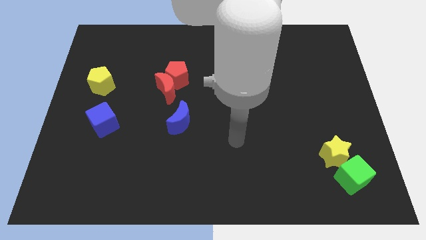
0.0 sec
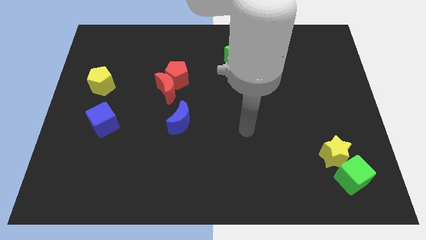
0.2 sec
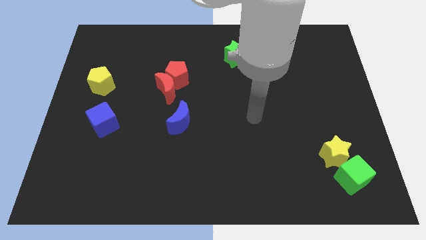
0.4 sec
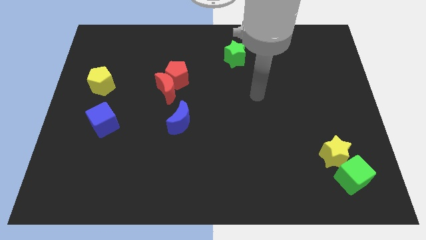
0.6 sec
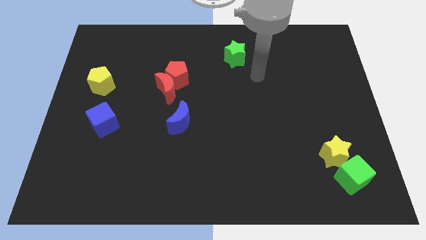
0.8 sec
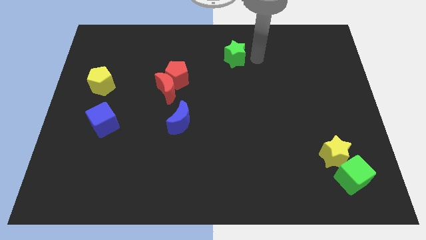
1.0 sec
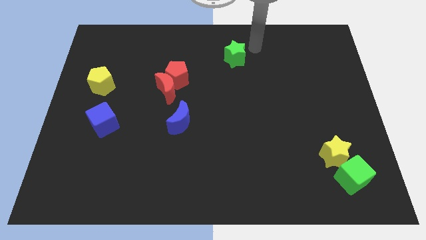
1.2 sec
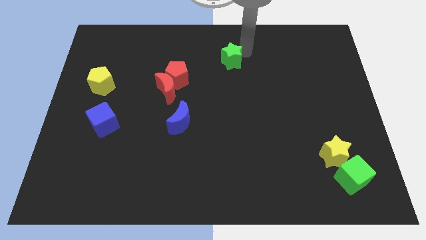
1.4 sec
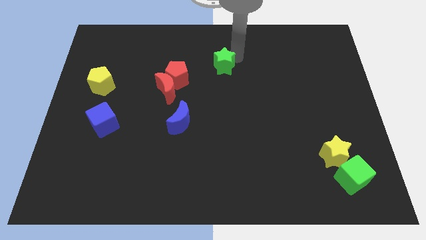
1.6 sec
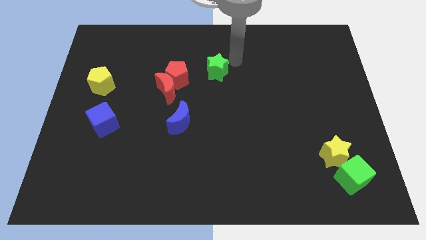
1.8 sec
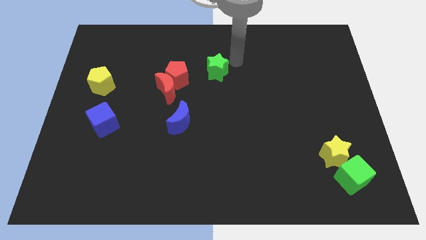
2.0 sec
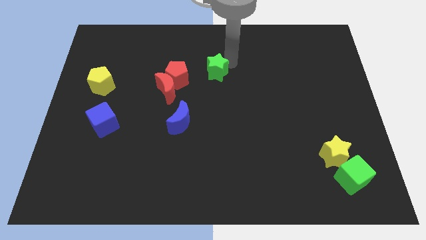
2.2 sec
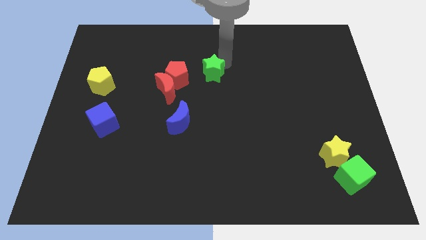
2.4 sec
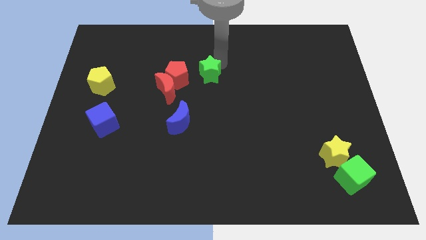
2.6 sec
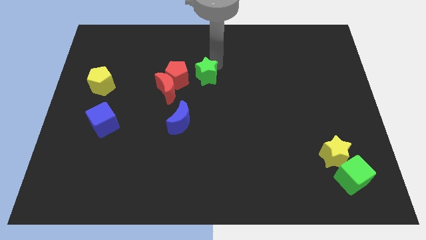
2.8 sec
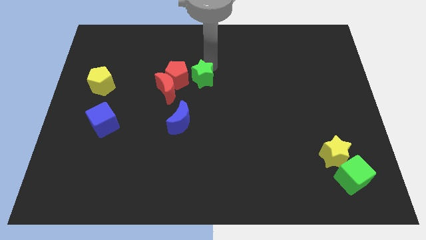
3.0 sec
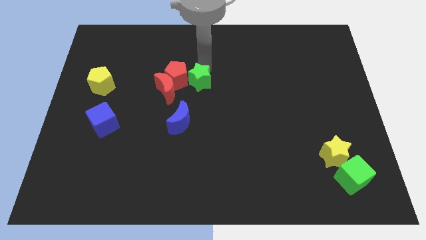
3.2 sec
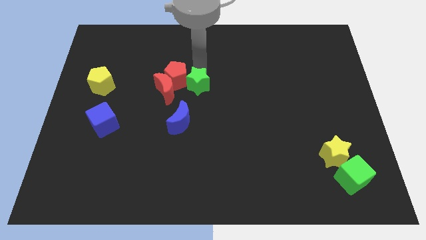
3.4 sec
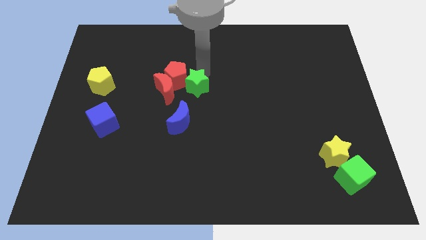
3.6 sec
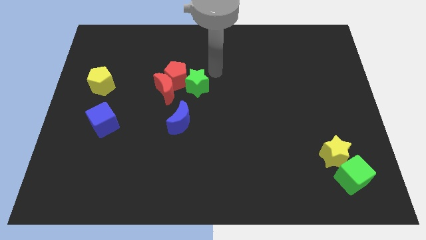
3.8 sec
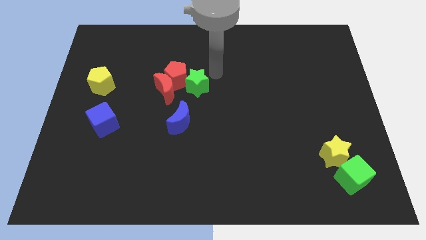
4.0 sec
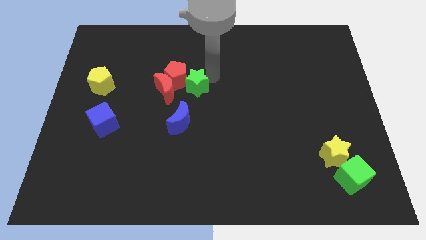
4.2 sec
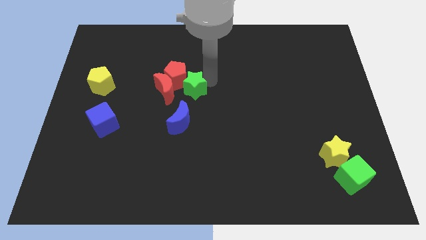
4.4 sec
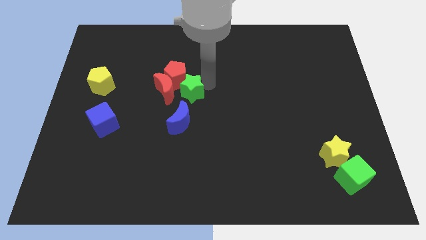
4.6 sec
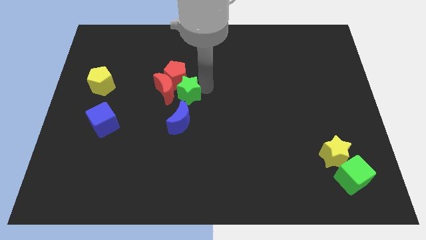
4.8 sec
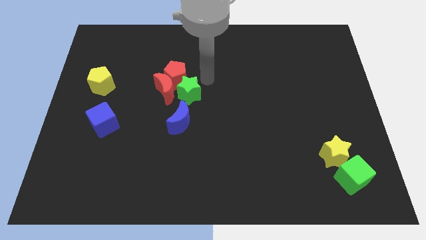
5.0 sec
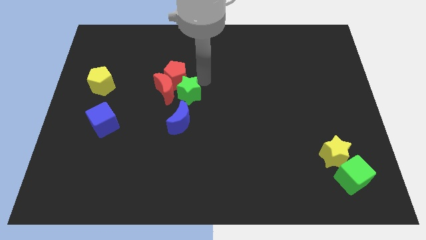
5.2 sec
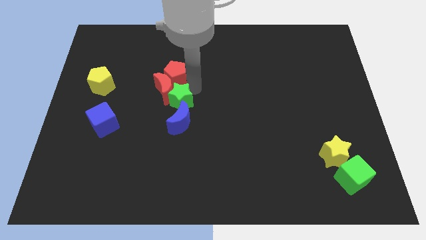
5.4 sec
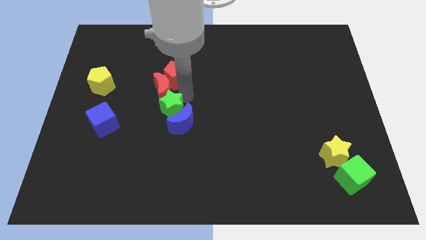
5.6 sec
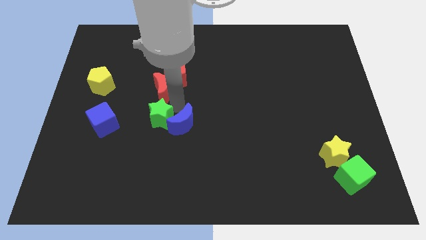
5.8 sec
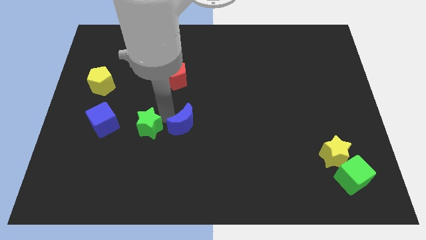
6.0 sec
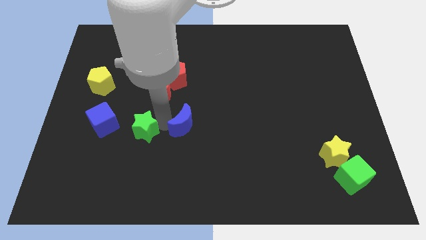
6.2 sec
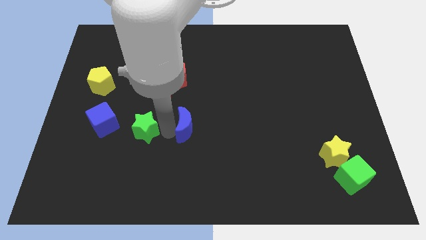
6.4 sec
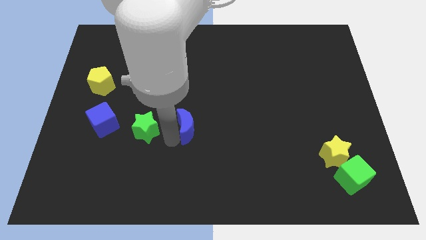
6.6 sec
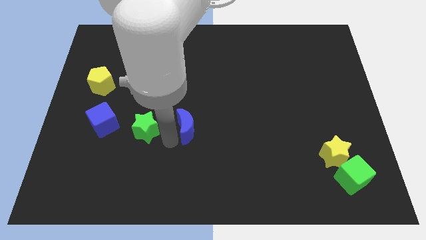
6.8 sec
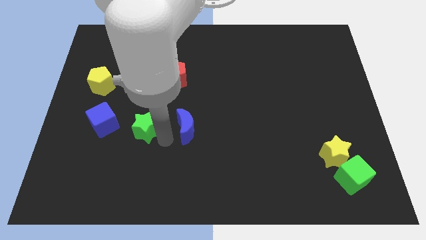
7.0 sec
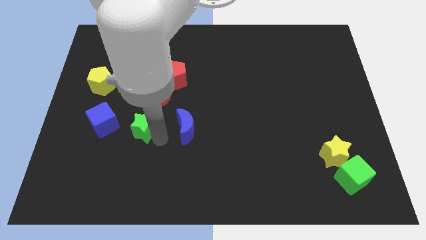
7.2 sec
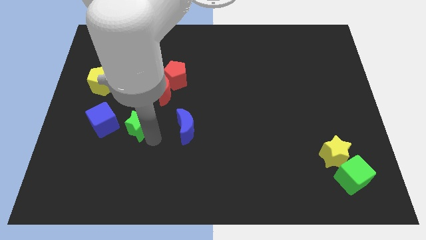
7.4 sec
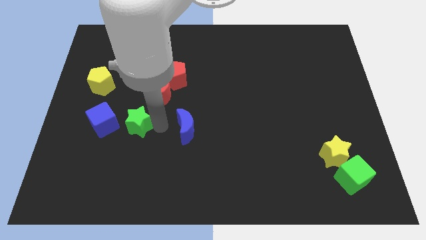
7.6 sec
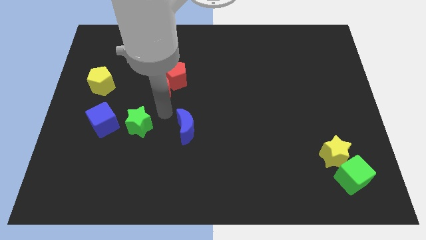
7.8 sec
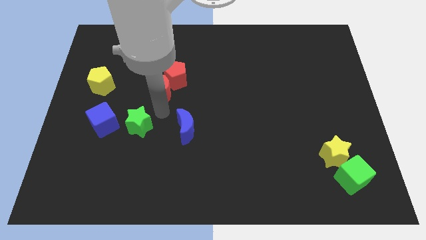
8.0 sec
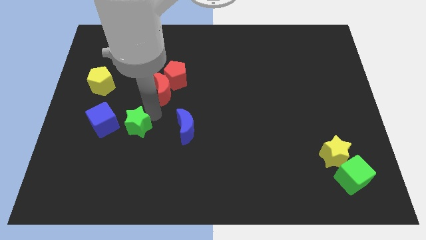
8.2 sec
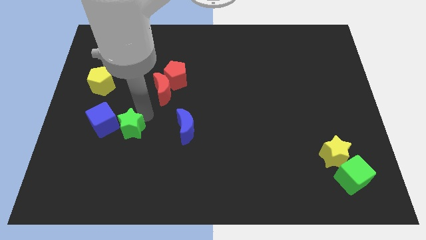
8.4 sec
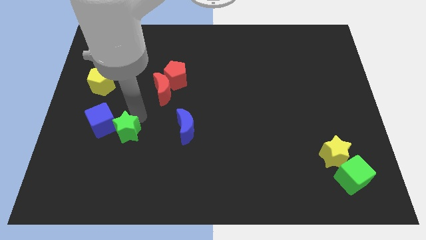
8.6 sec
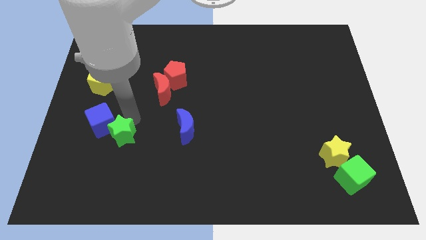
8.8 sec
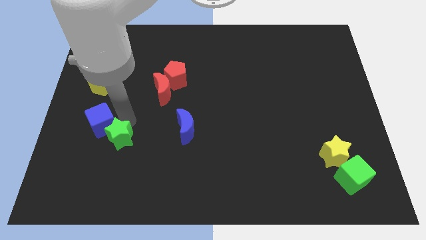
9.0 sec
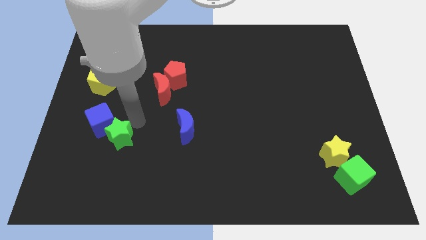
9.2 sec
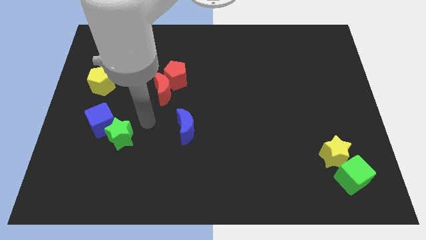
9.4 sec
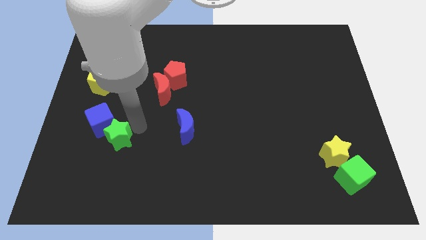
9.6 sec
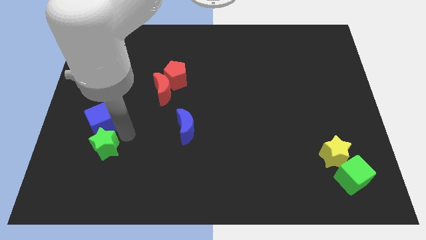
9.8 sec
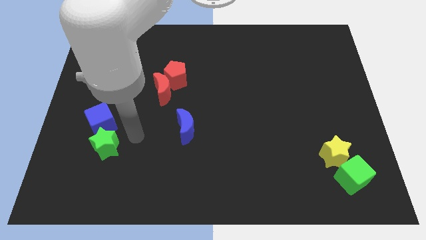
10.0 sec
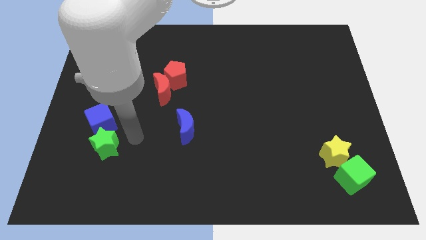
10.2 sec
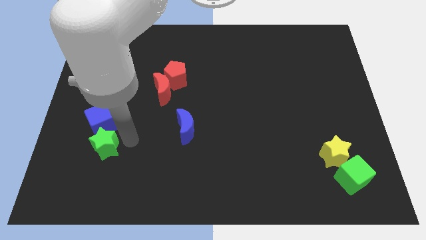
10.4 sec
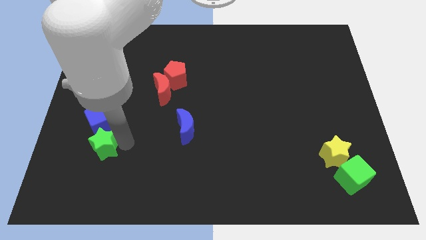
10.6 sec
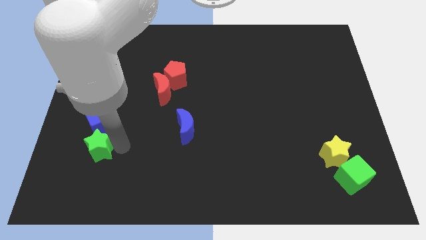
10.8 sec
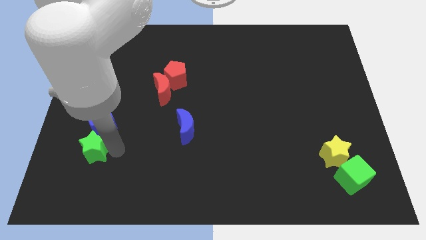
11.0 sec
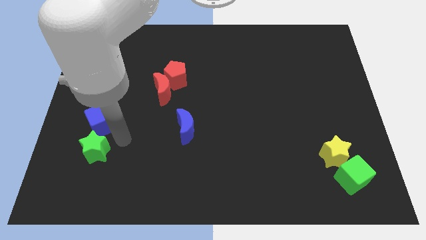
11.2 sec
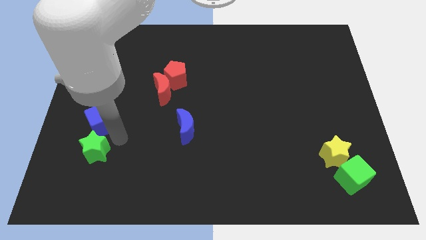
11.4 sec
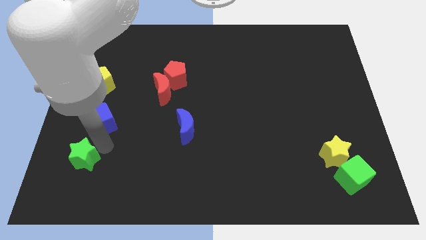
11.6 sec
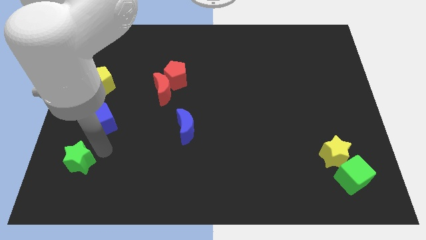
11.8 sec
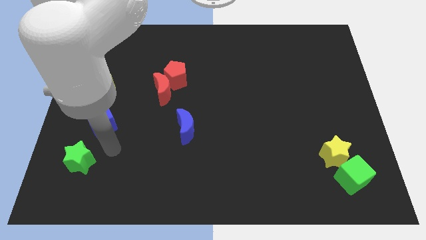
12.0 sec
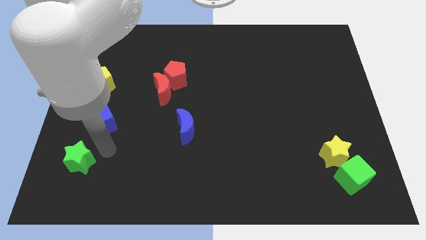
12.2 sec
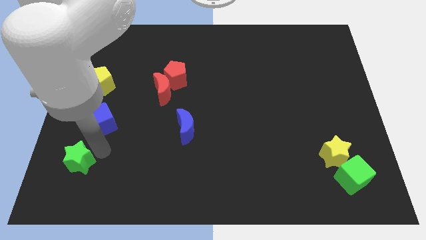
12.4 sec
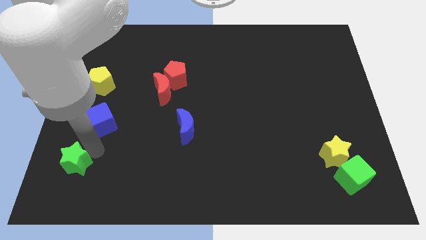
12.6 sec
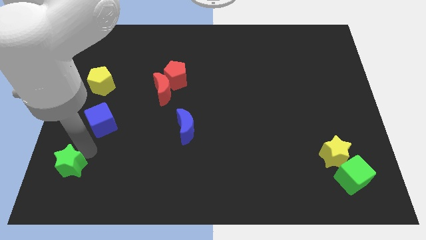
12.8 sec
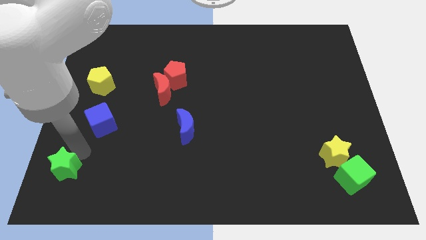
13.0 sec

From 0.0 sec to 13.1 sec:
slide the green star to the bottom left of the board
